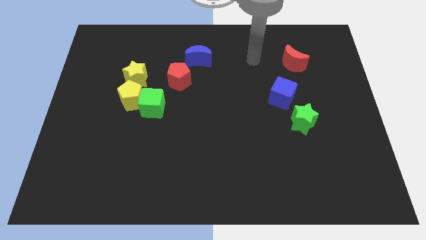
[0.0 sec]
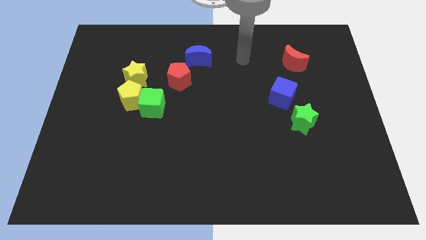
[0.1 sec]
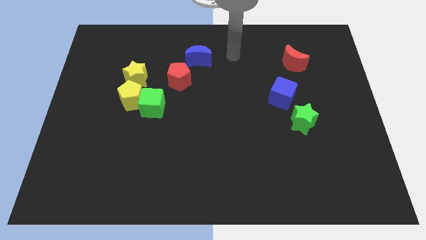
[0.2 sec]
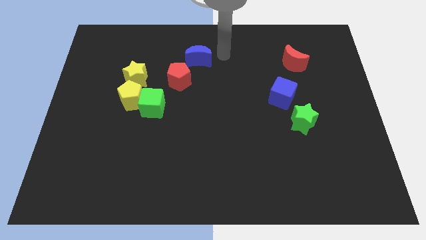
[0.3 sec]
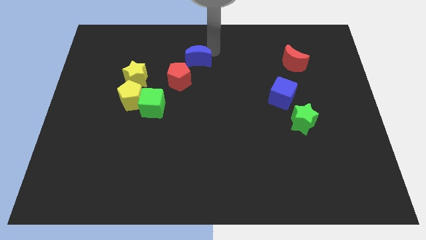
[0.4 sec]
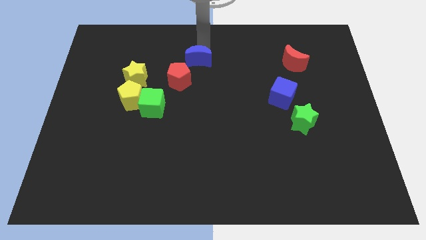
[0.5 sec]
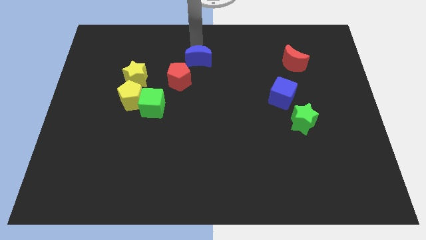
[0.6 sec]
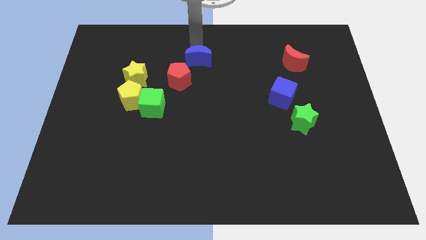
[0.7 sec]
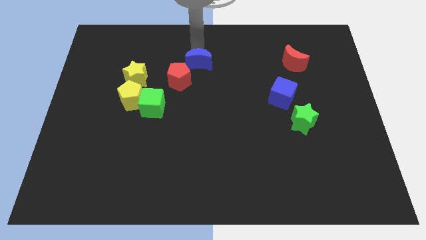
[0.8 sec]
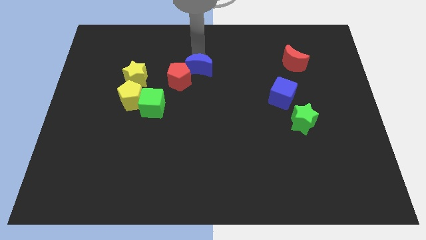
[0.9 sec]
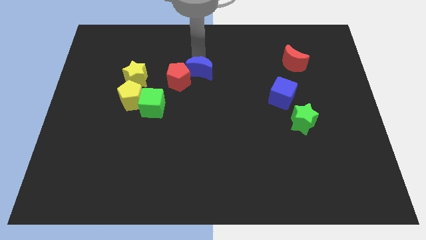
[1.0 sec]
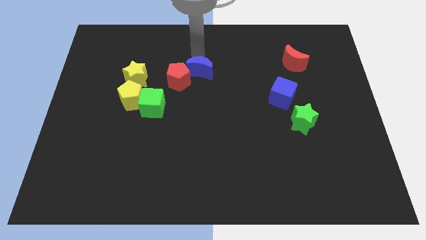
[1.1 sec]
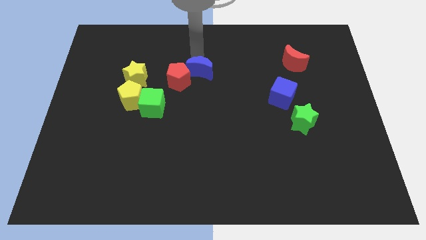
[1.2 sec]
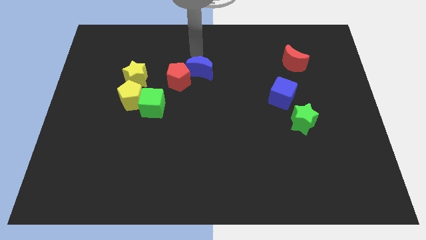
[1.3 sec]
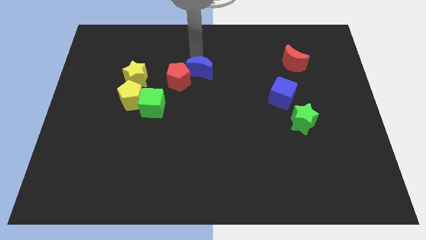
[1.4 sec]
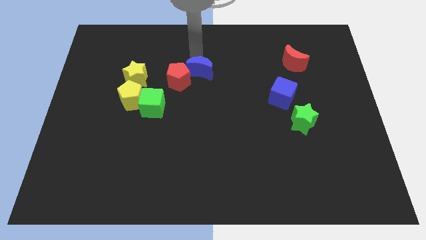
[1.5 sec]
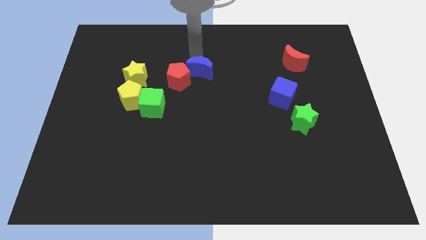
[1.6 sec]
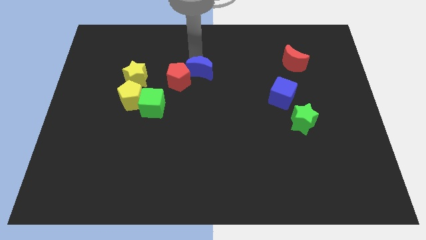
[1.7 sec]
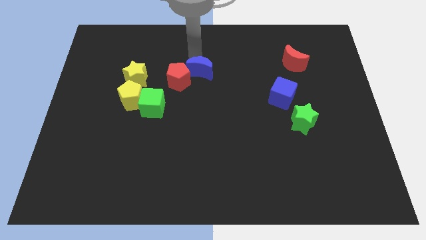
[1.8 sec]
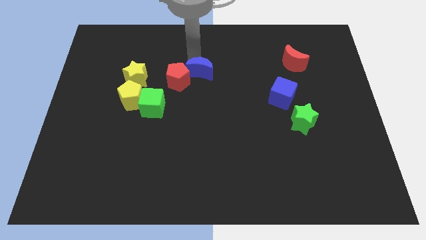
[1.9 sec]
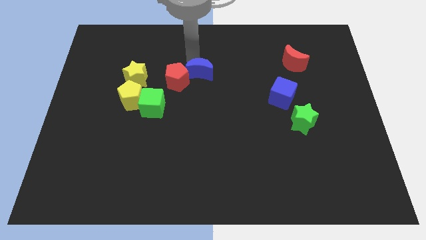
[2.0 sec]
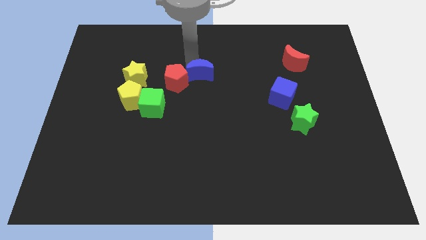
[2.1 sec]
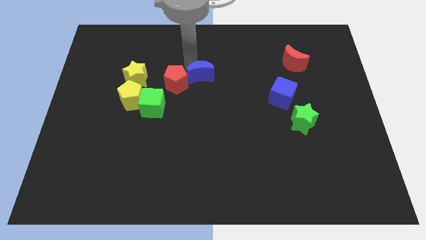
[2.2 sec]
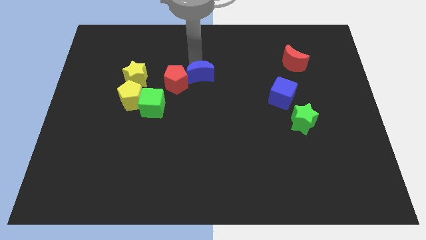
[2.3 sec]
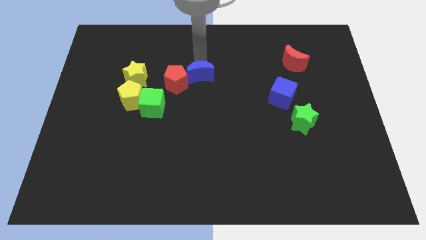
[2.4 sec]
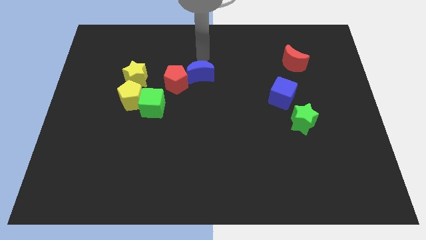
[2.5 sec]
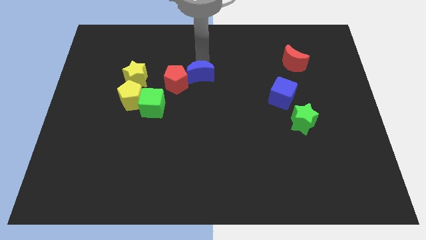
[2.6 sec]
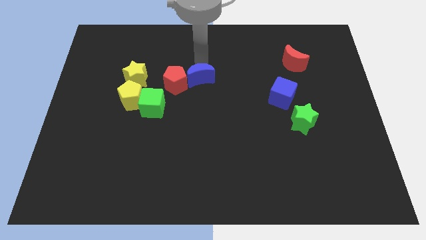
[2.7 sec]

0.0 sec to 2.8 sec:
slide the blue moon a little downwards

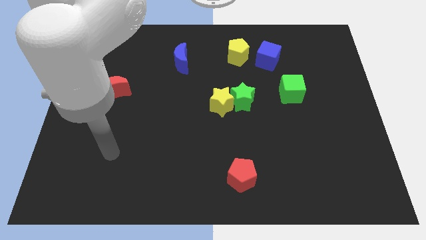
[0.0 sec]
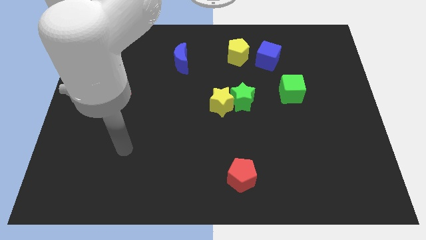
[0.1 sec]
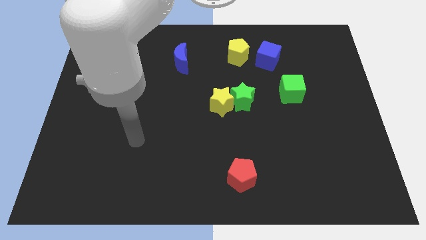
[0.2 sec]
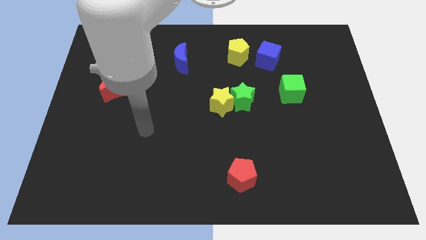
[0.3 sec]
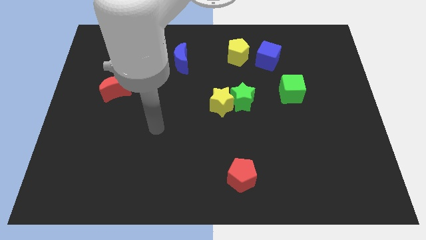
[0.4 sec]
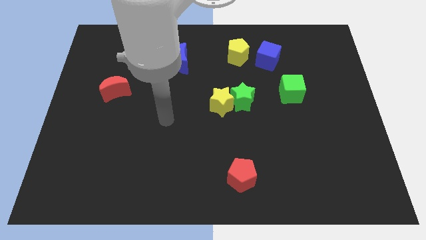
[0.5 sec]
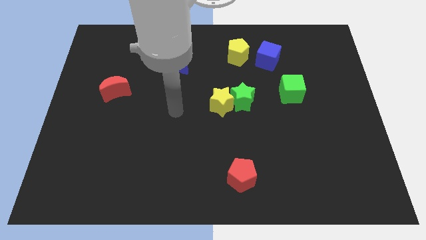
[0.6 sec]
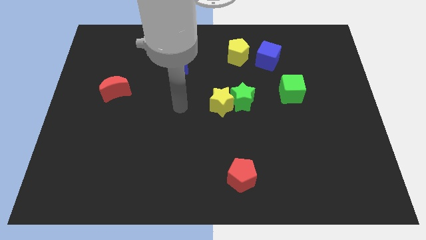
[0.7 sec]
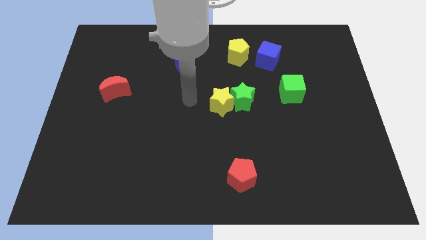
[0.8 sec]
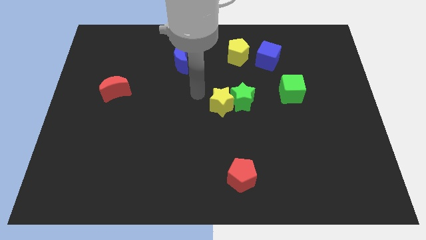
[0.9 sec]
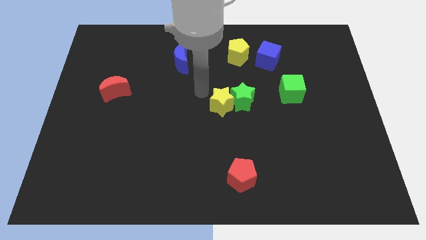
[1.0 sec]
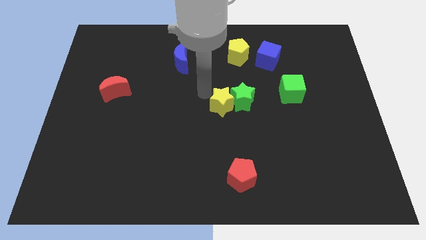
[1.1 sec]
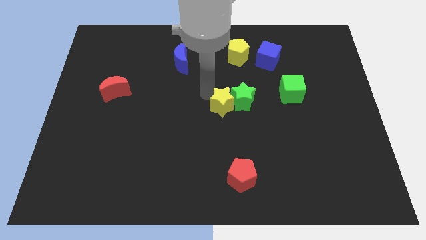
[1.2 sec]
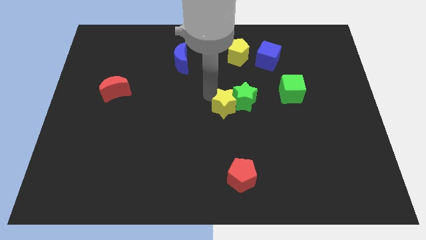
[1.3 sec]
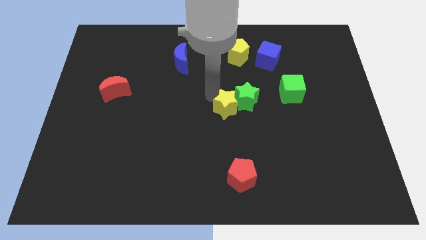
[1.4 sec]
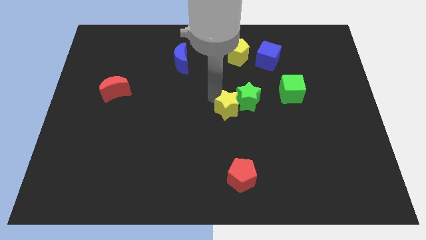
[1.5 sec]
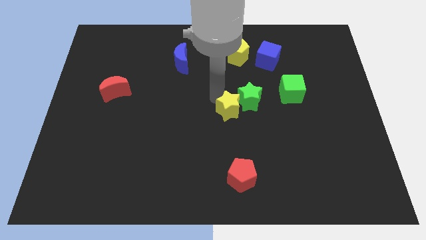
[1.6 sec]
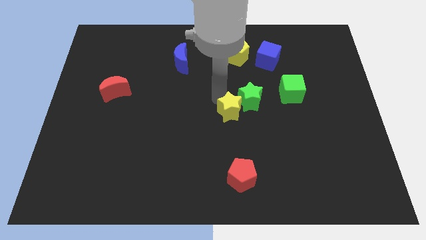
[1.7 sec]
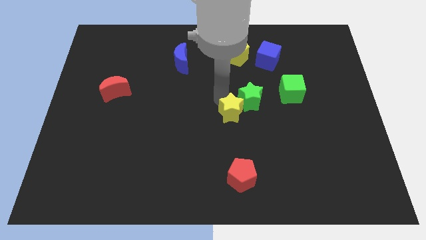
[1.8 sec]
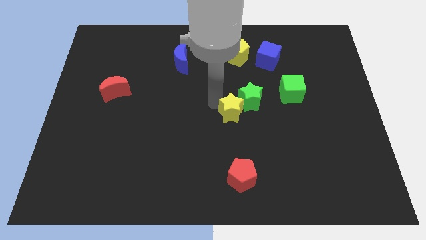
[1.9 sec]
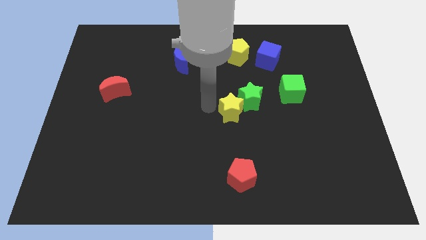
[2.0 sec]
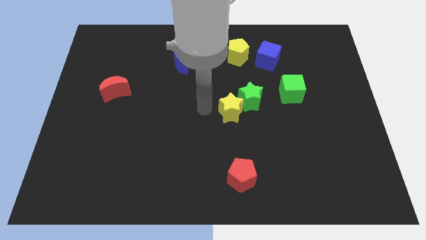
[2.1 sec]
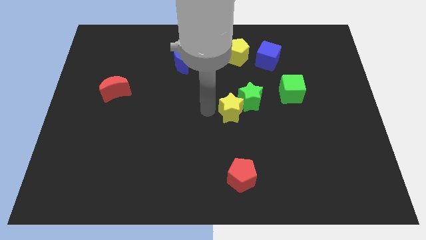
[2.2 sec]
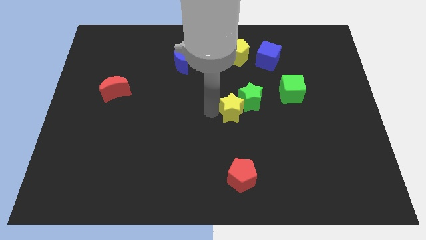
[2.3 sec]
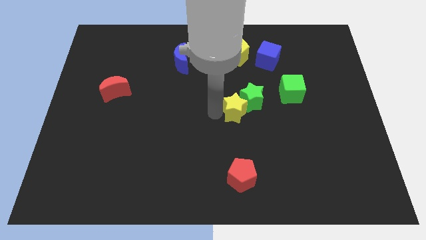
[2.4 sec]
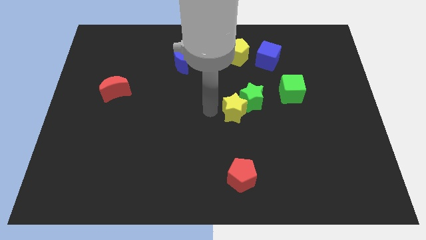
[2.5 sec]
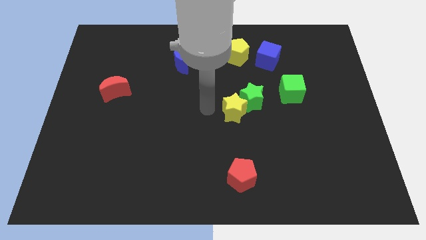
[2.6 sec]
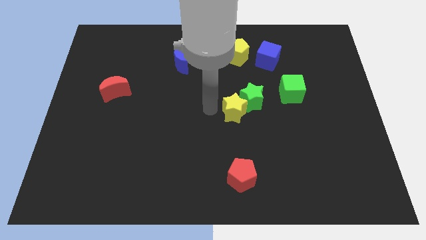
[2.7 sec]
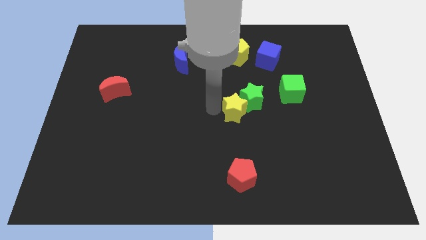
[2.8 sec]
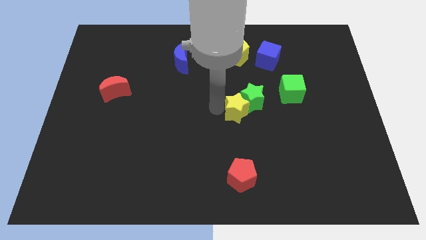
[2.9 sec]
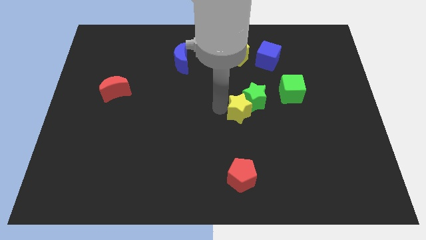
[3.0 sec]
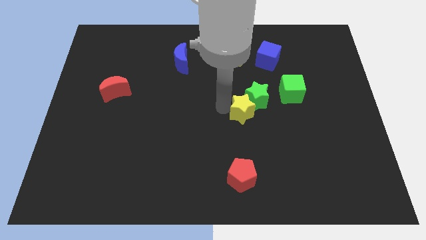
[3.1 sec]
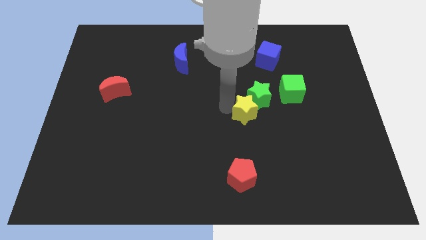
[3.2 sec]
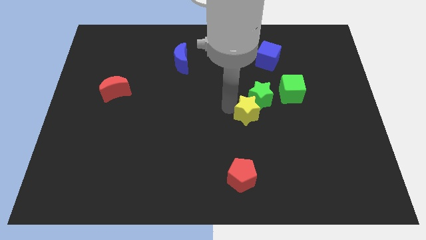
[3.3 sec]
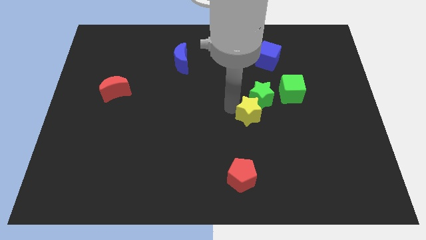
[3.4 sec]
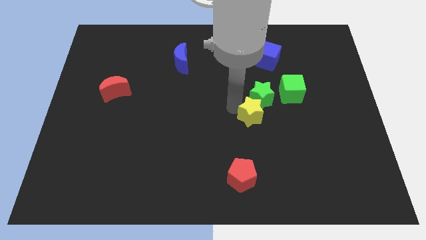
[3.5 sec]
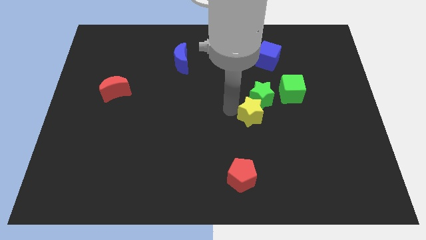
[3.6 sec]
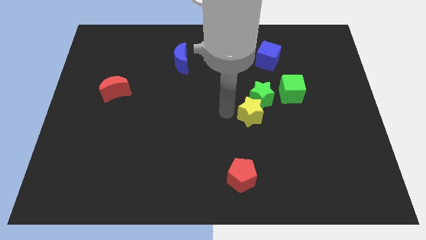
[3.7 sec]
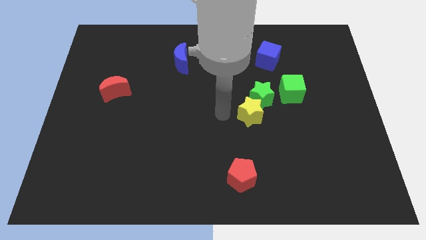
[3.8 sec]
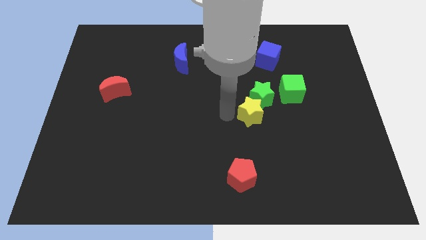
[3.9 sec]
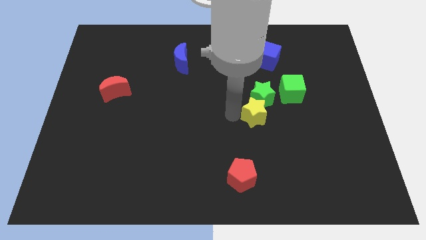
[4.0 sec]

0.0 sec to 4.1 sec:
move the yellow star to the right slightly

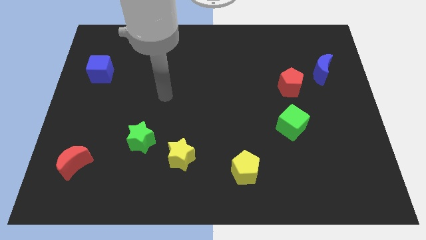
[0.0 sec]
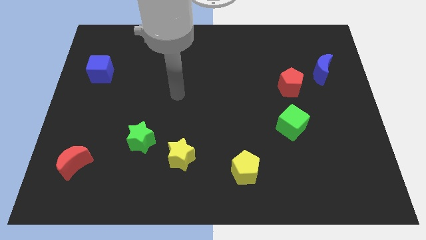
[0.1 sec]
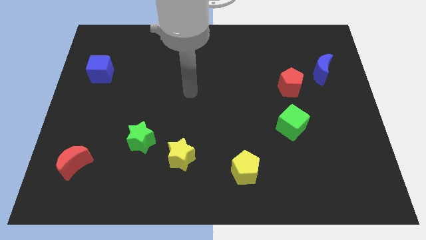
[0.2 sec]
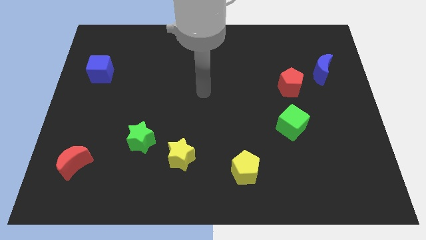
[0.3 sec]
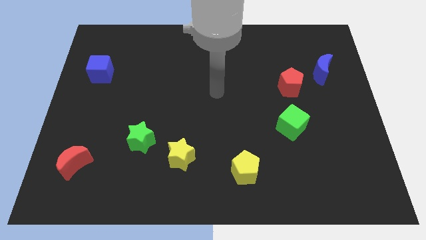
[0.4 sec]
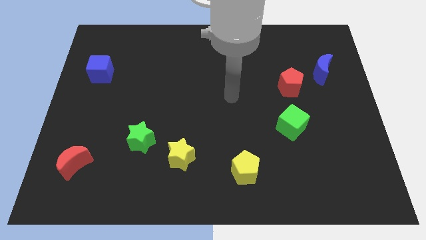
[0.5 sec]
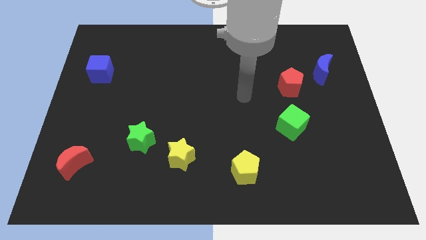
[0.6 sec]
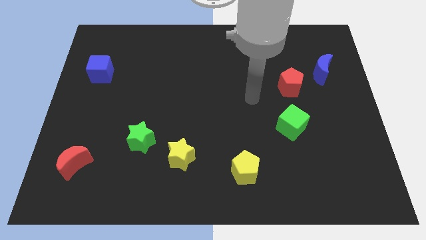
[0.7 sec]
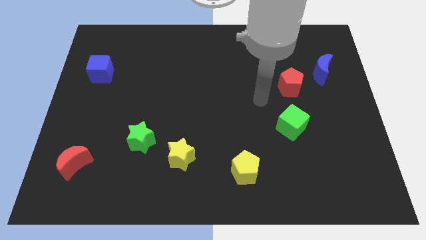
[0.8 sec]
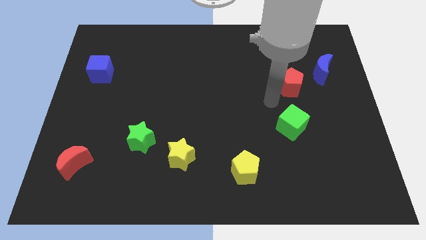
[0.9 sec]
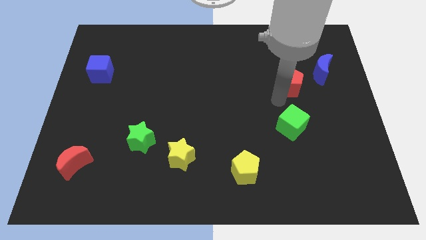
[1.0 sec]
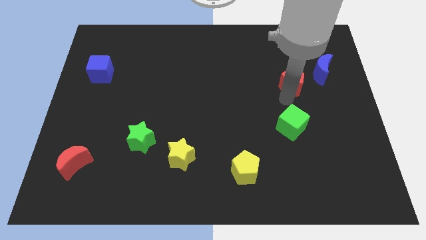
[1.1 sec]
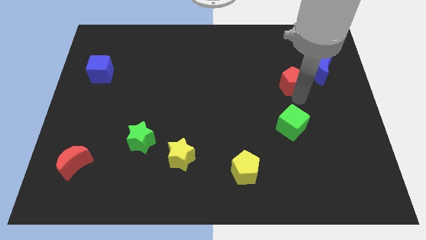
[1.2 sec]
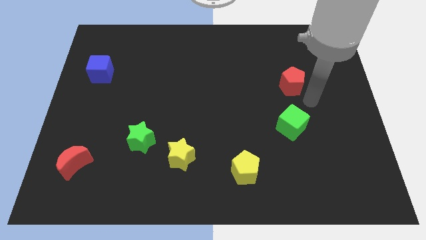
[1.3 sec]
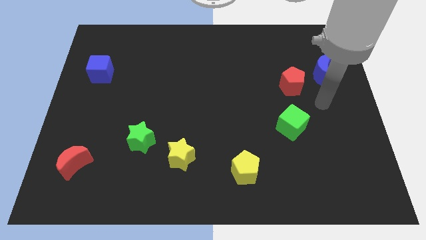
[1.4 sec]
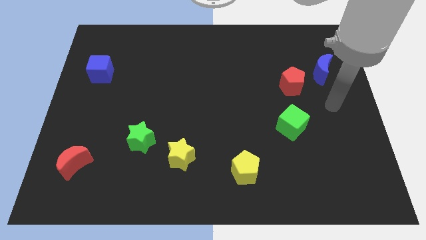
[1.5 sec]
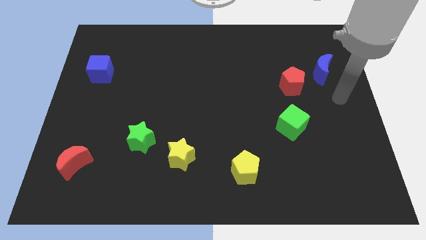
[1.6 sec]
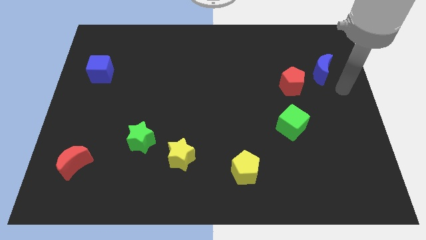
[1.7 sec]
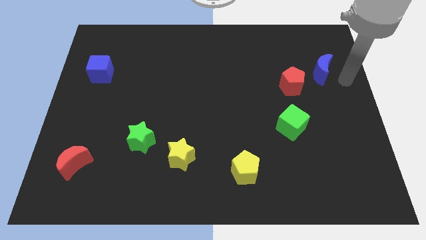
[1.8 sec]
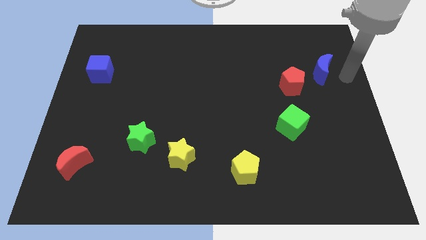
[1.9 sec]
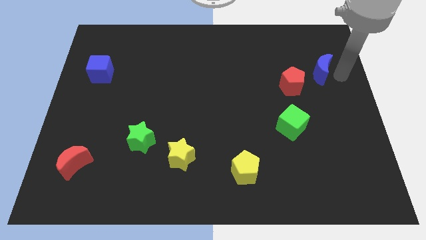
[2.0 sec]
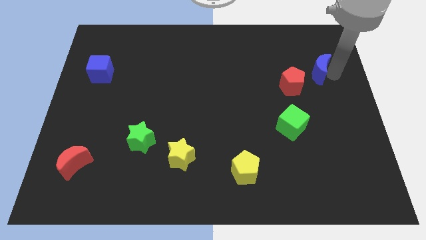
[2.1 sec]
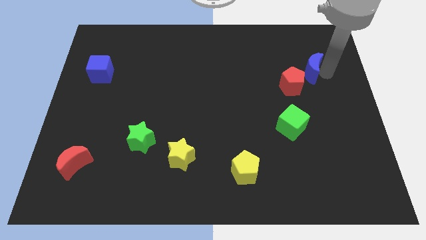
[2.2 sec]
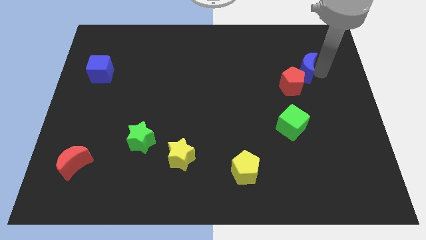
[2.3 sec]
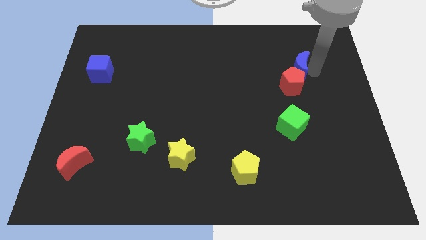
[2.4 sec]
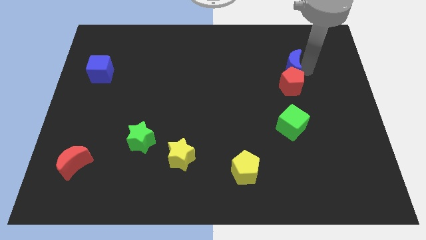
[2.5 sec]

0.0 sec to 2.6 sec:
move the blue moon to the left a little
